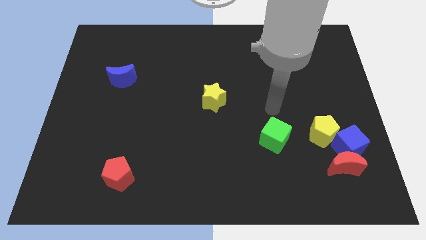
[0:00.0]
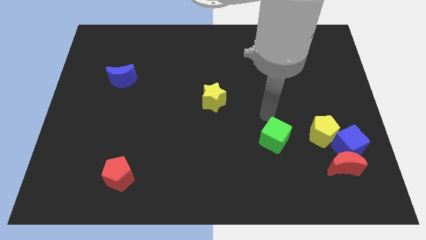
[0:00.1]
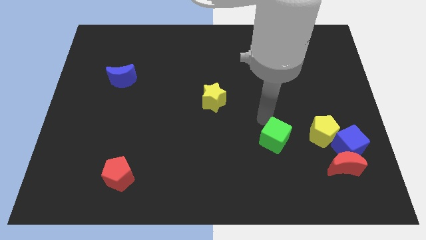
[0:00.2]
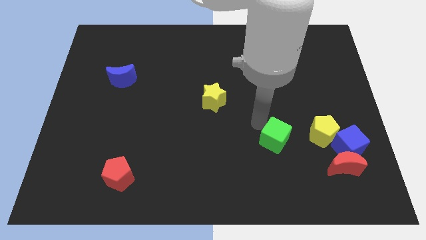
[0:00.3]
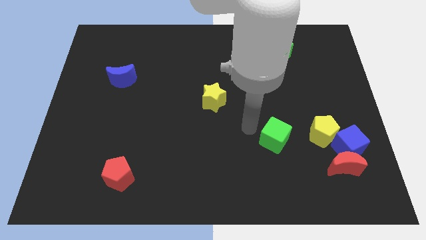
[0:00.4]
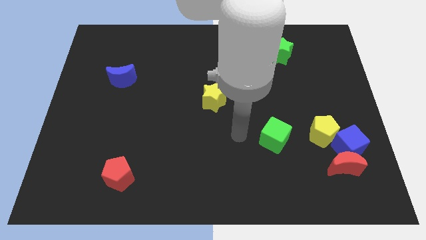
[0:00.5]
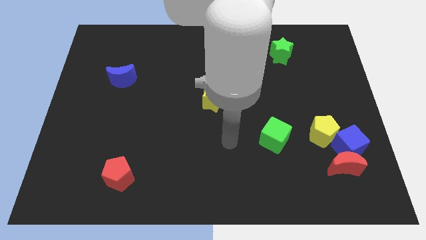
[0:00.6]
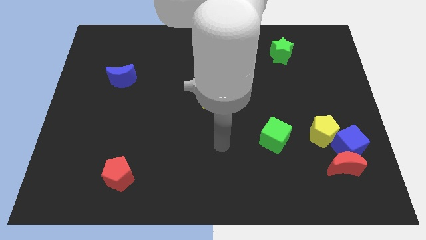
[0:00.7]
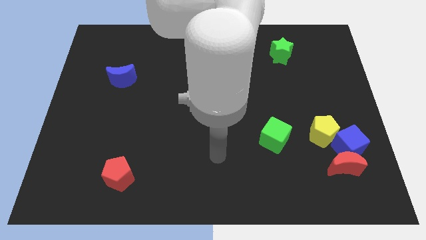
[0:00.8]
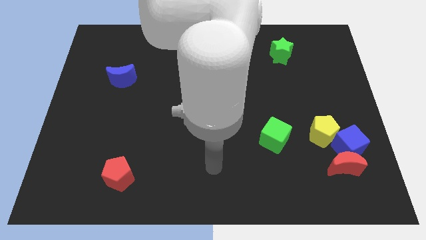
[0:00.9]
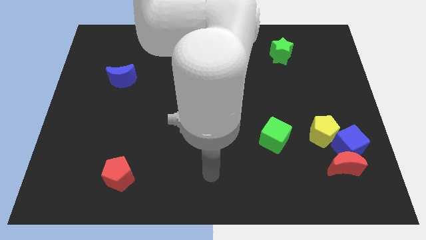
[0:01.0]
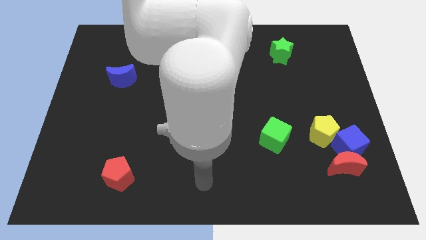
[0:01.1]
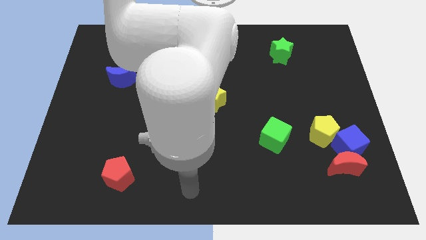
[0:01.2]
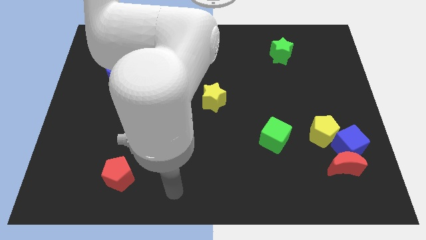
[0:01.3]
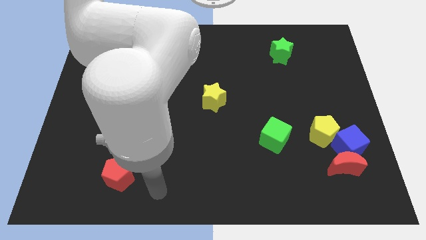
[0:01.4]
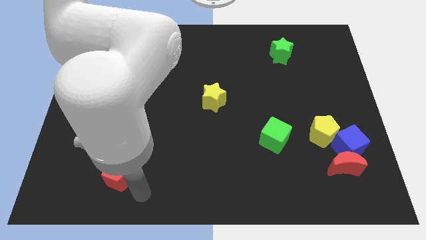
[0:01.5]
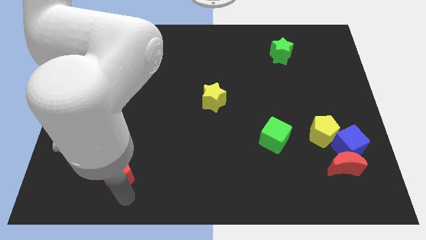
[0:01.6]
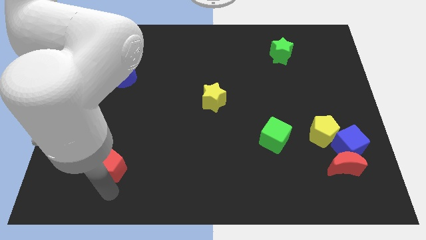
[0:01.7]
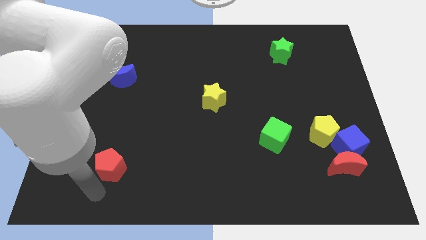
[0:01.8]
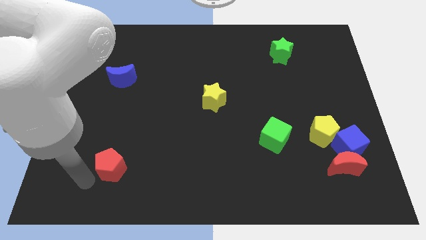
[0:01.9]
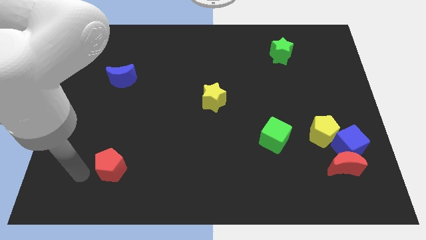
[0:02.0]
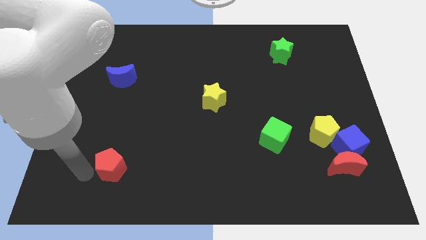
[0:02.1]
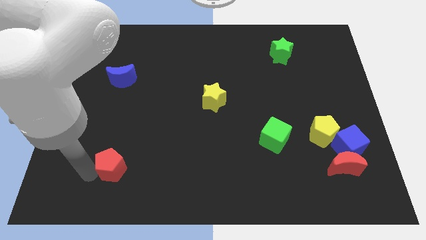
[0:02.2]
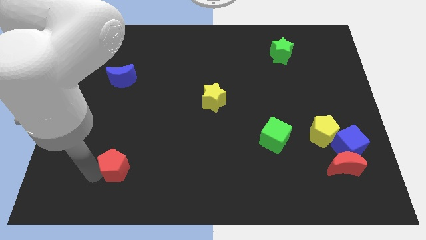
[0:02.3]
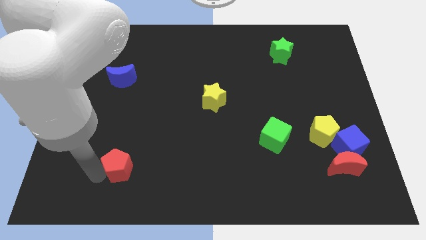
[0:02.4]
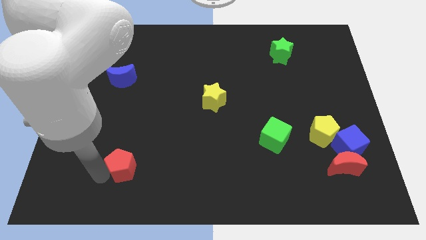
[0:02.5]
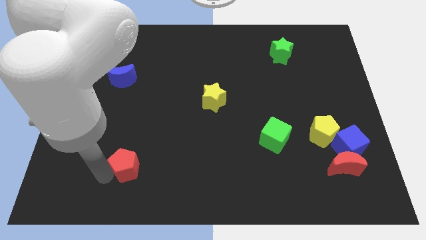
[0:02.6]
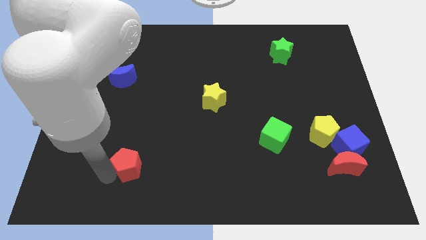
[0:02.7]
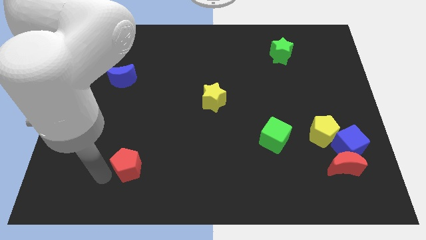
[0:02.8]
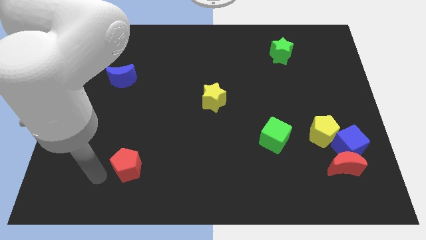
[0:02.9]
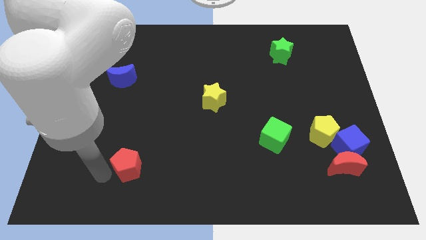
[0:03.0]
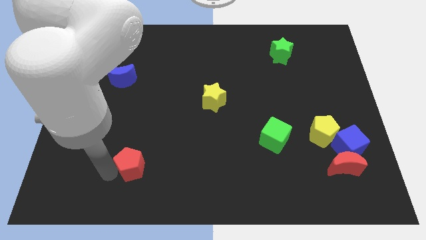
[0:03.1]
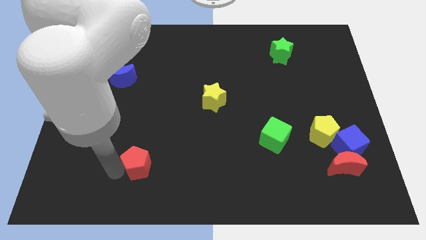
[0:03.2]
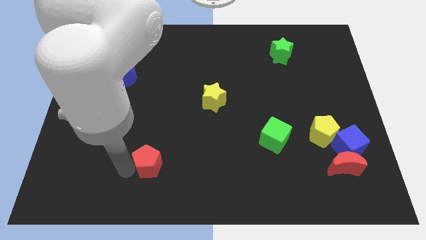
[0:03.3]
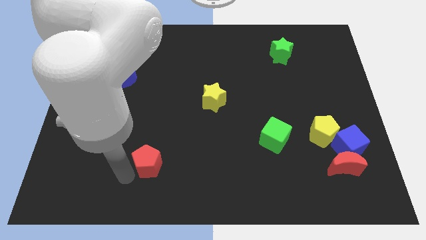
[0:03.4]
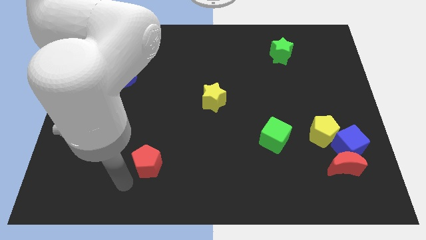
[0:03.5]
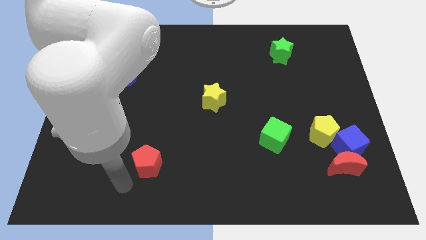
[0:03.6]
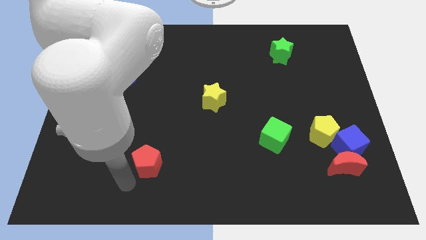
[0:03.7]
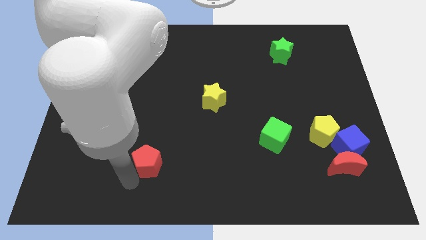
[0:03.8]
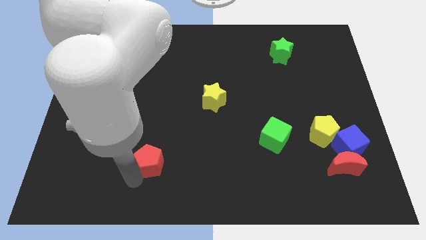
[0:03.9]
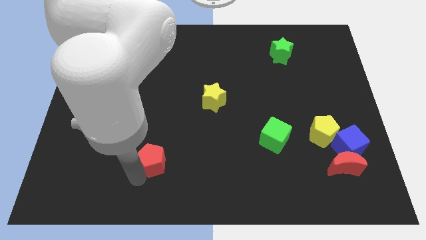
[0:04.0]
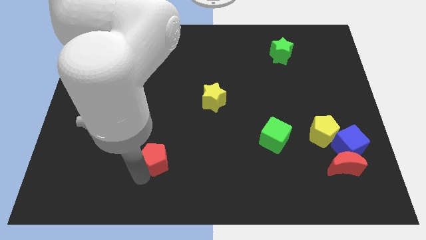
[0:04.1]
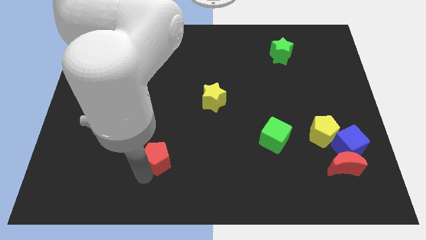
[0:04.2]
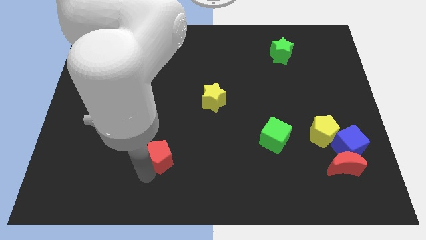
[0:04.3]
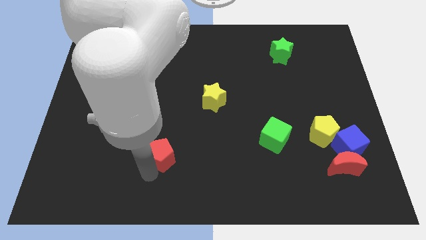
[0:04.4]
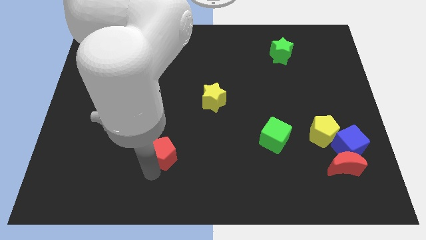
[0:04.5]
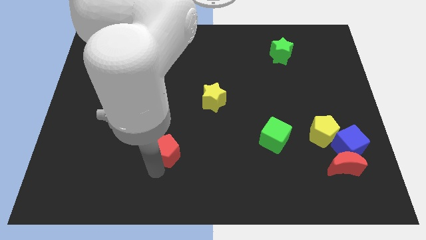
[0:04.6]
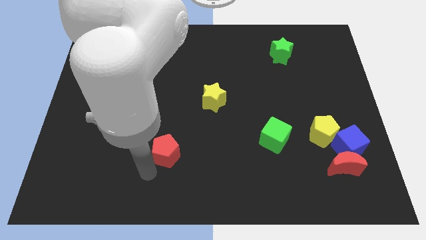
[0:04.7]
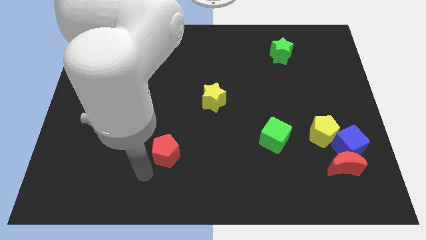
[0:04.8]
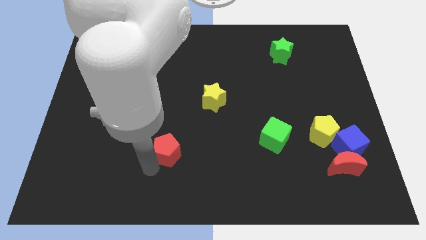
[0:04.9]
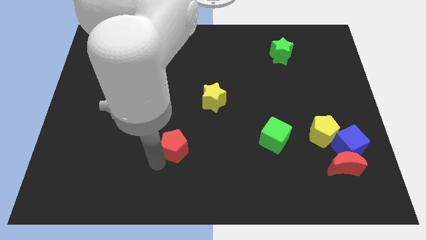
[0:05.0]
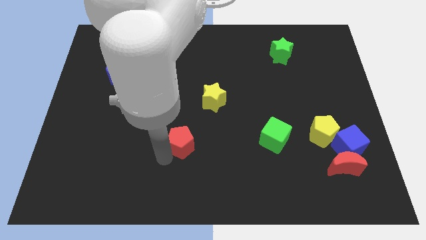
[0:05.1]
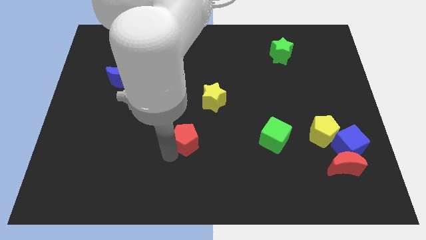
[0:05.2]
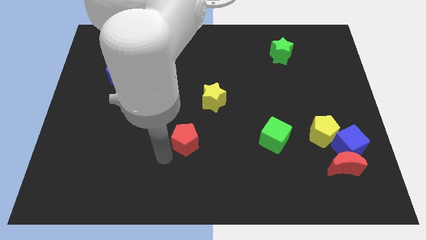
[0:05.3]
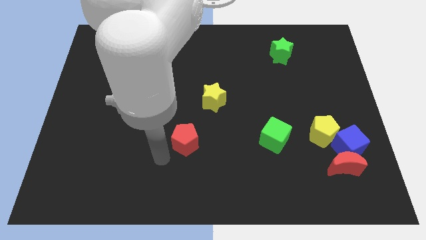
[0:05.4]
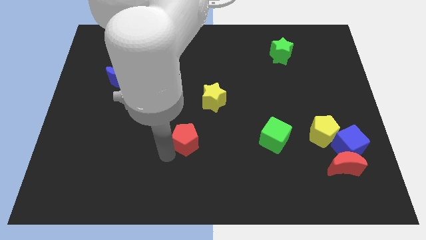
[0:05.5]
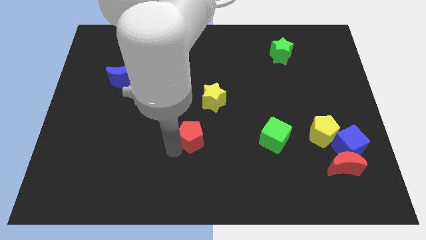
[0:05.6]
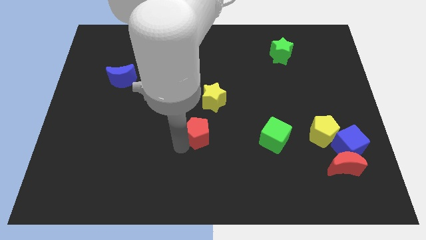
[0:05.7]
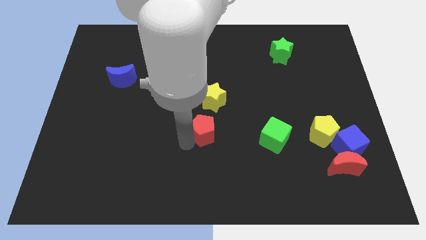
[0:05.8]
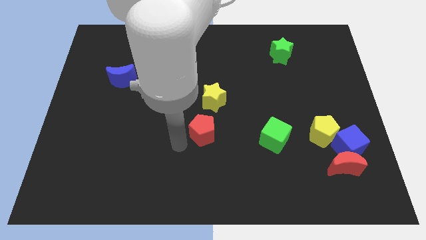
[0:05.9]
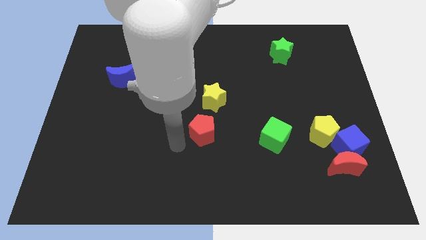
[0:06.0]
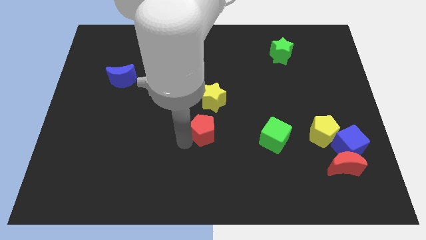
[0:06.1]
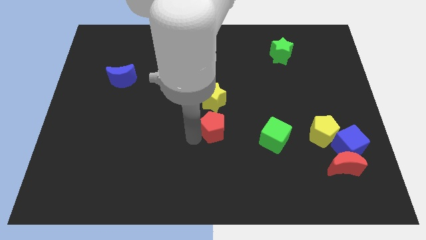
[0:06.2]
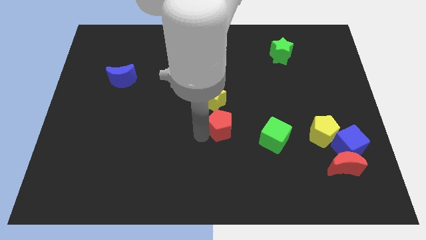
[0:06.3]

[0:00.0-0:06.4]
slide the red pentagon to the bottom right of the yellow star

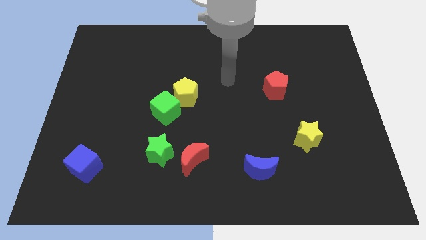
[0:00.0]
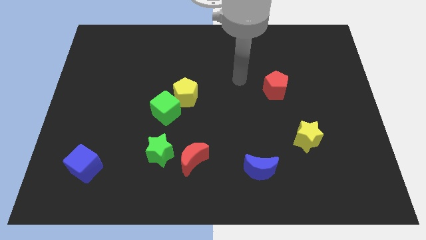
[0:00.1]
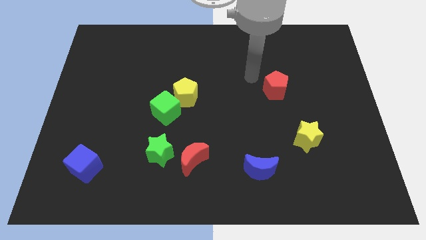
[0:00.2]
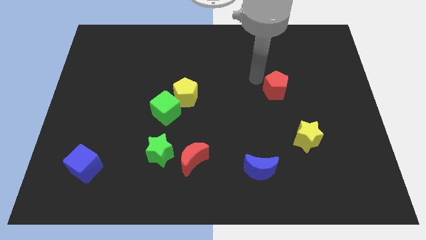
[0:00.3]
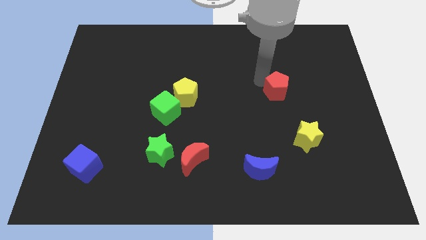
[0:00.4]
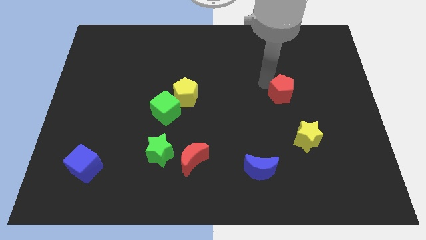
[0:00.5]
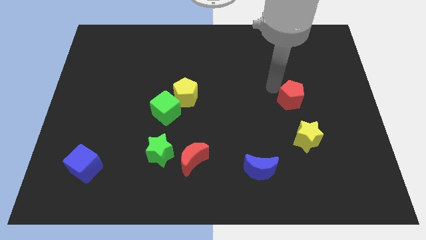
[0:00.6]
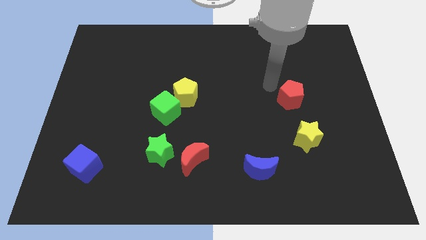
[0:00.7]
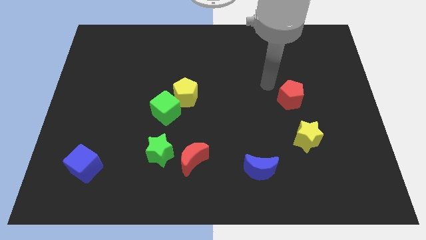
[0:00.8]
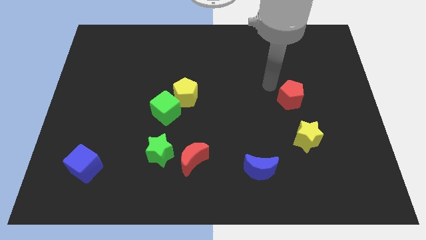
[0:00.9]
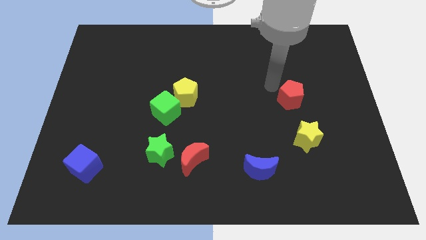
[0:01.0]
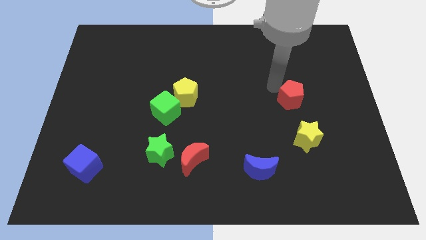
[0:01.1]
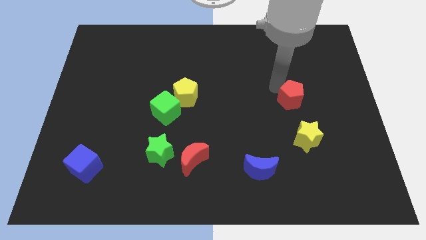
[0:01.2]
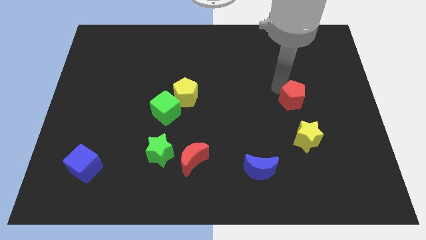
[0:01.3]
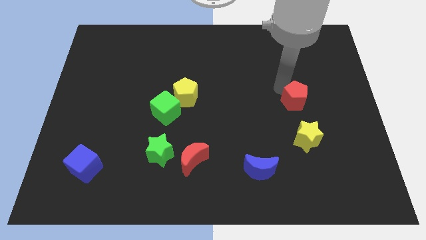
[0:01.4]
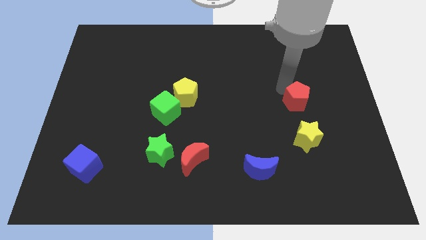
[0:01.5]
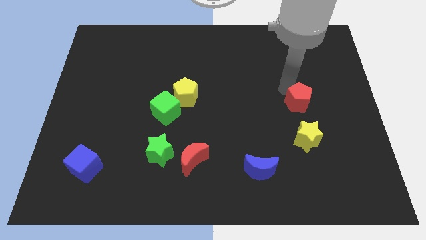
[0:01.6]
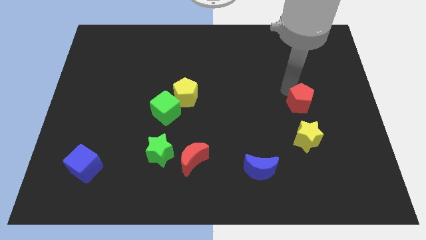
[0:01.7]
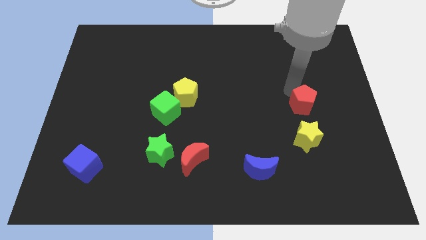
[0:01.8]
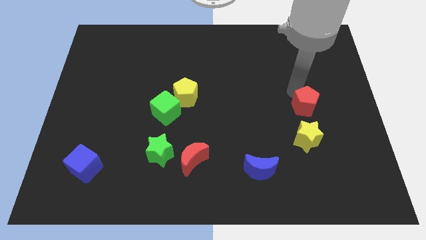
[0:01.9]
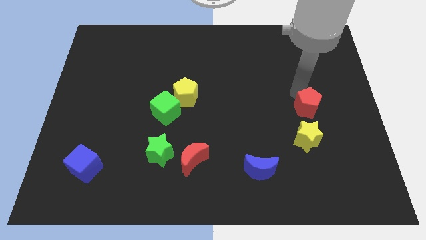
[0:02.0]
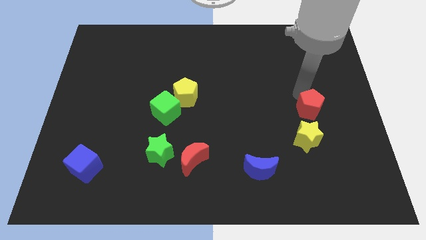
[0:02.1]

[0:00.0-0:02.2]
push the red pentagon diagonally up and to the right of the yellow star
